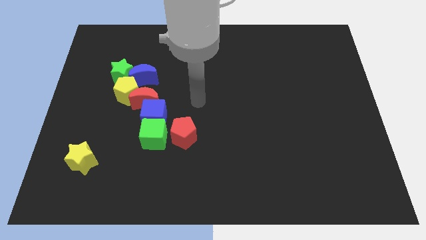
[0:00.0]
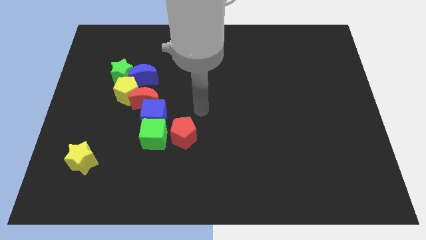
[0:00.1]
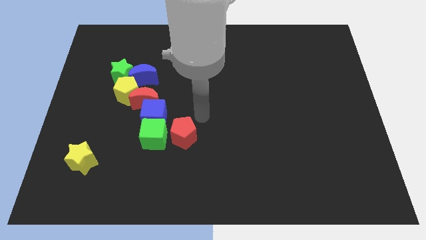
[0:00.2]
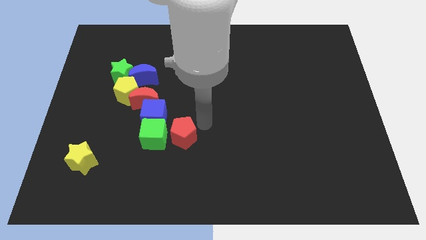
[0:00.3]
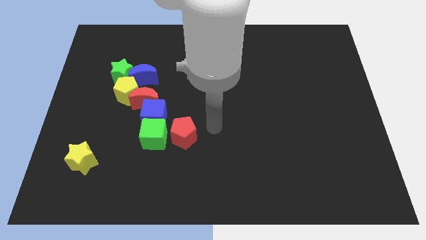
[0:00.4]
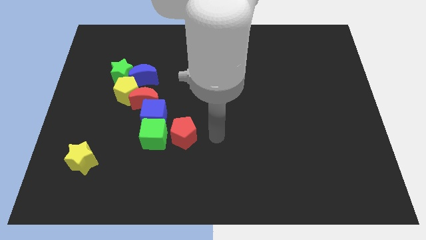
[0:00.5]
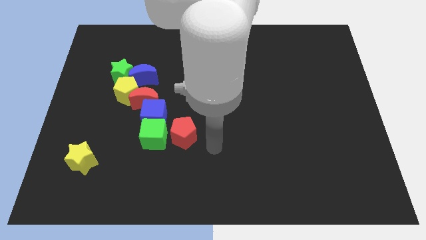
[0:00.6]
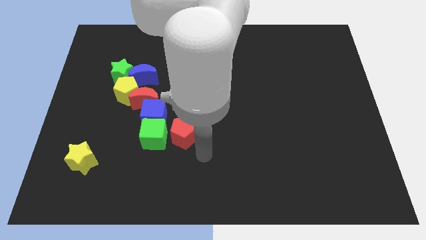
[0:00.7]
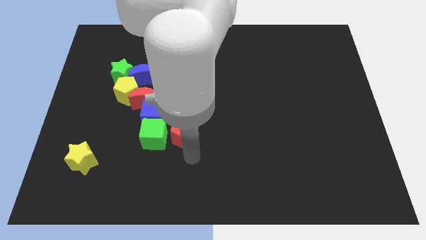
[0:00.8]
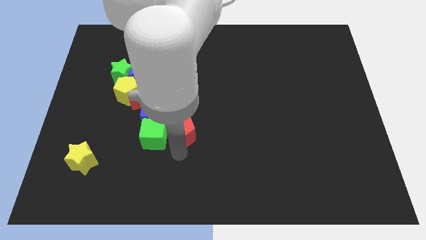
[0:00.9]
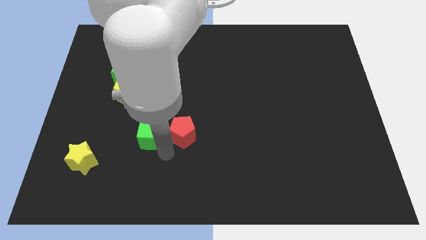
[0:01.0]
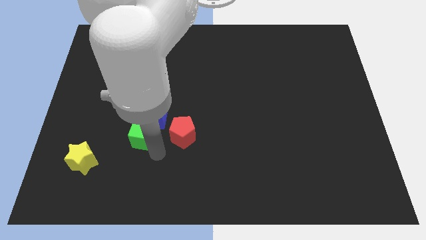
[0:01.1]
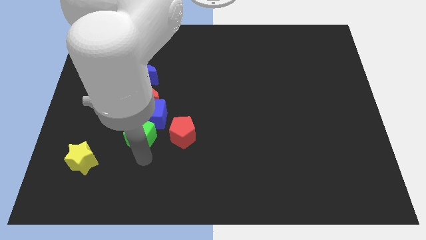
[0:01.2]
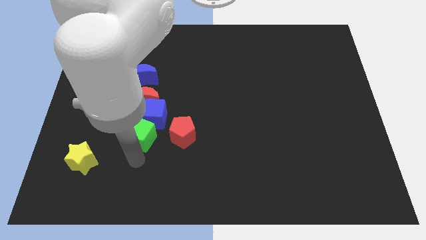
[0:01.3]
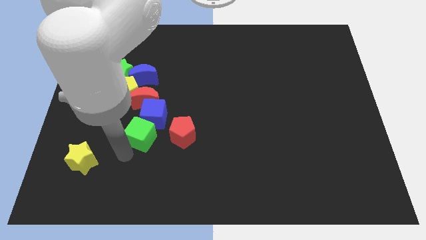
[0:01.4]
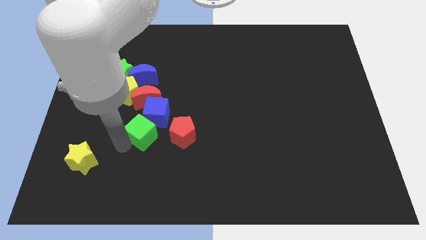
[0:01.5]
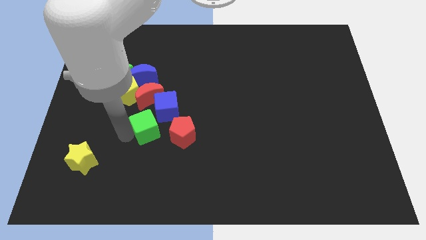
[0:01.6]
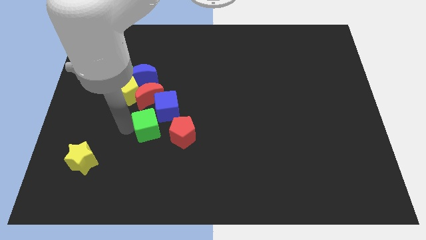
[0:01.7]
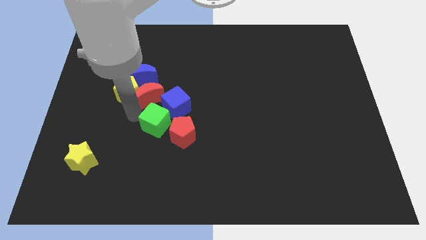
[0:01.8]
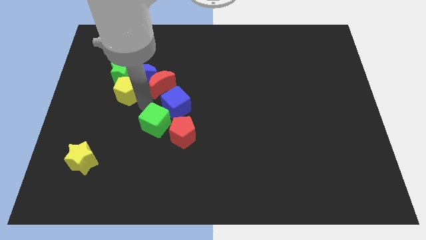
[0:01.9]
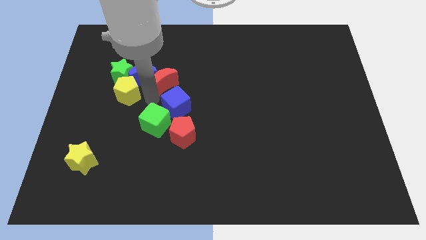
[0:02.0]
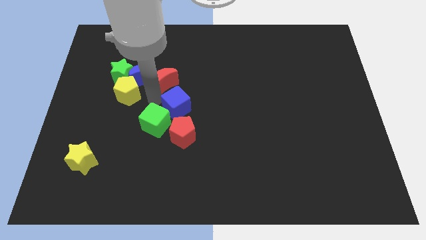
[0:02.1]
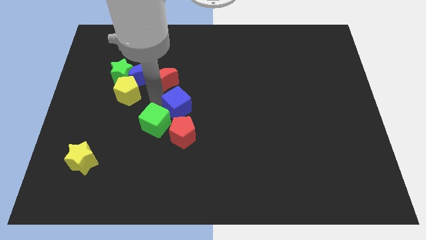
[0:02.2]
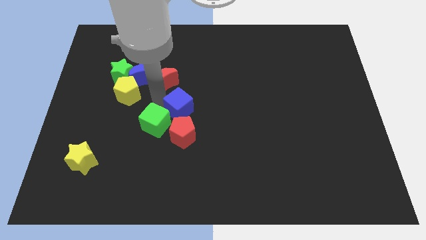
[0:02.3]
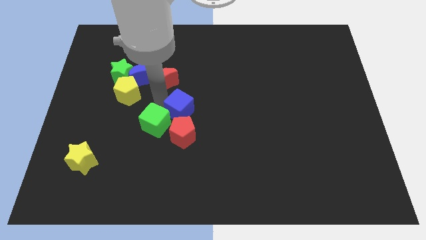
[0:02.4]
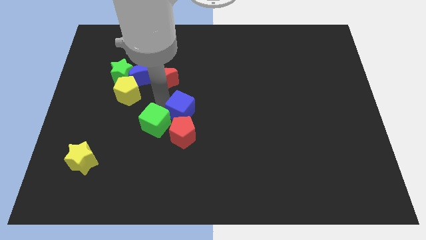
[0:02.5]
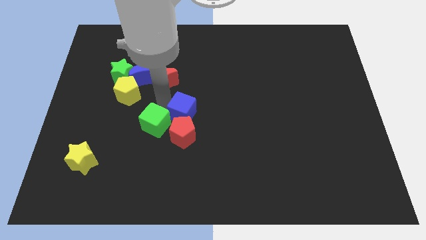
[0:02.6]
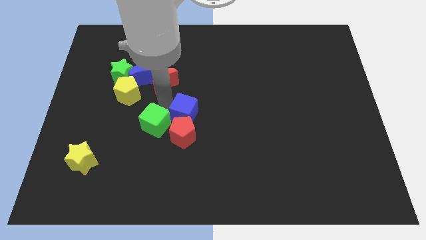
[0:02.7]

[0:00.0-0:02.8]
slide the blue cube right a little bit

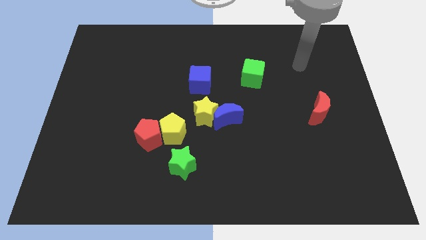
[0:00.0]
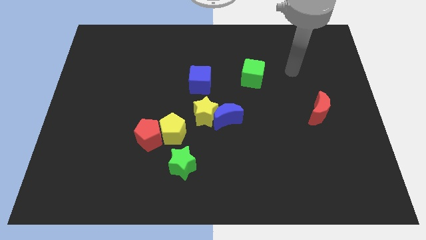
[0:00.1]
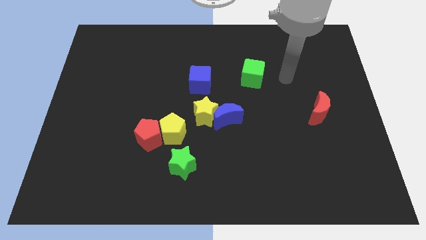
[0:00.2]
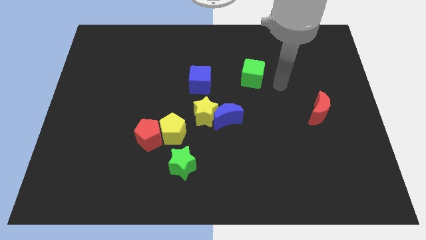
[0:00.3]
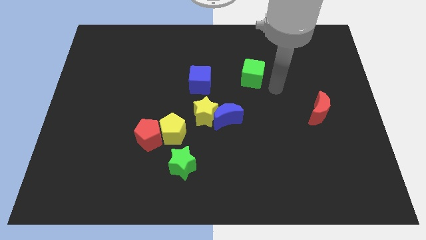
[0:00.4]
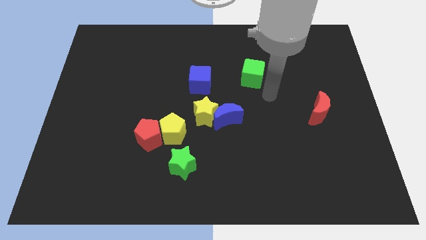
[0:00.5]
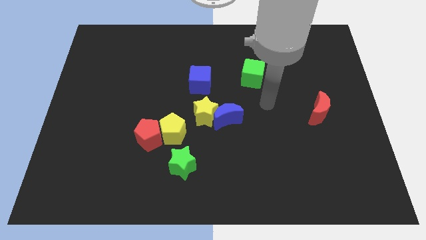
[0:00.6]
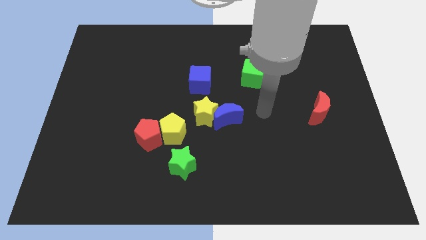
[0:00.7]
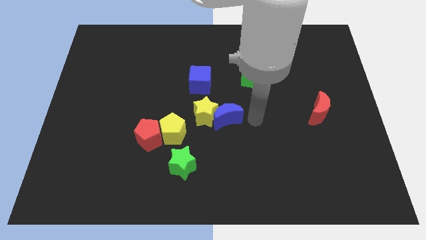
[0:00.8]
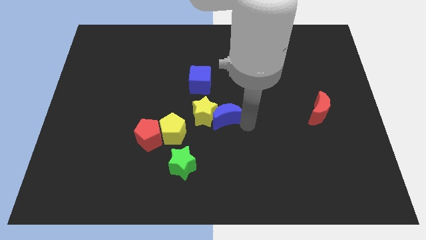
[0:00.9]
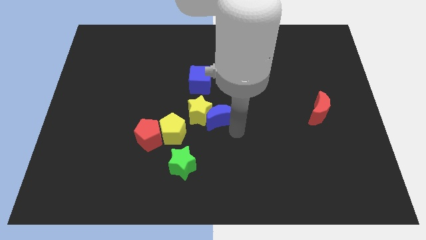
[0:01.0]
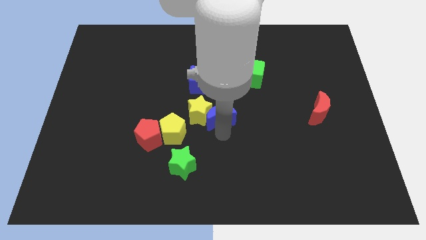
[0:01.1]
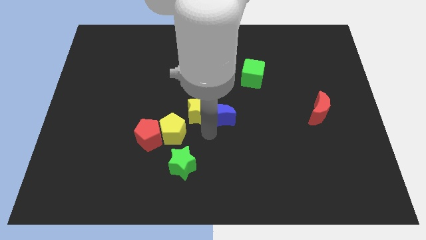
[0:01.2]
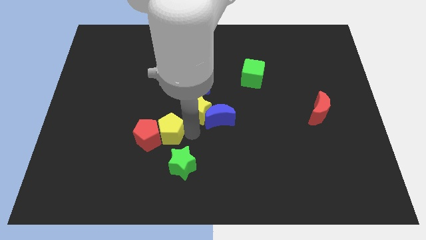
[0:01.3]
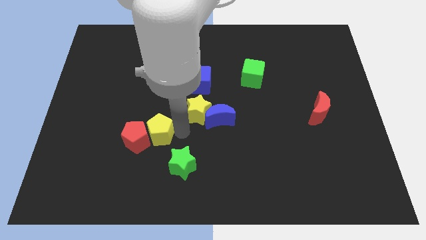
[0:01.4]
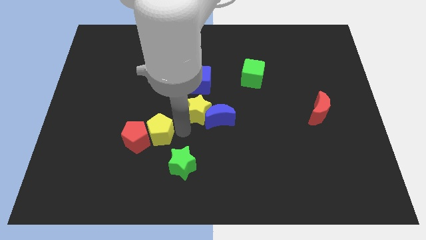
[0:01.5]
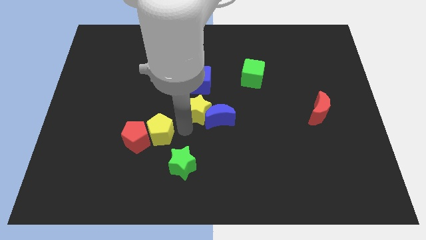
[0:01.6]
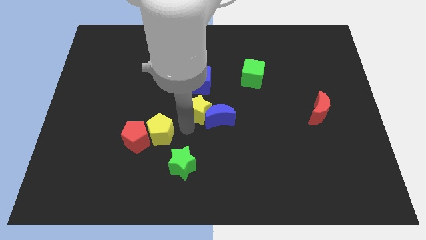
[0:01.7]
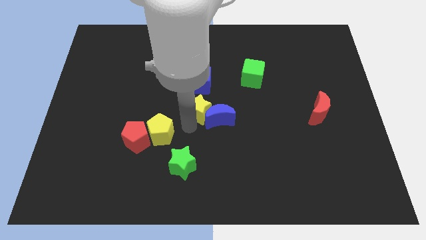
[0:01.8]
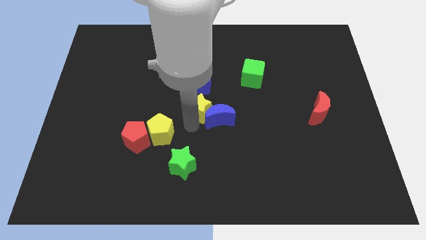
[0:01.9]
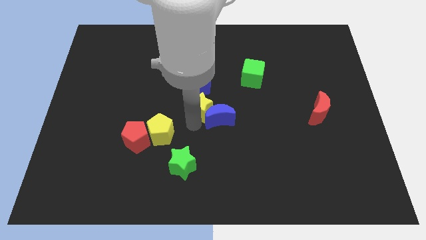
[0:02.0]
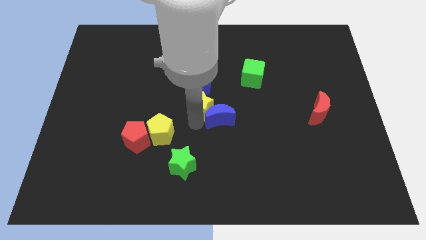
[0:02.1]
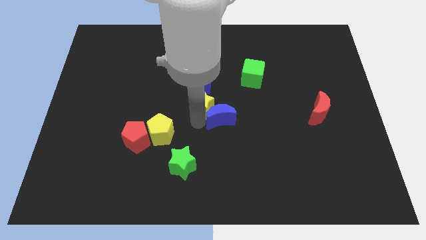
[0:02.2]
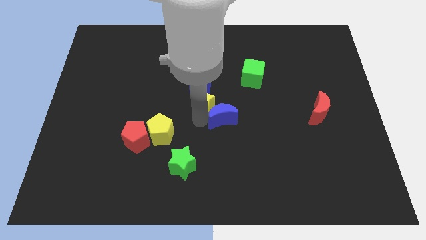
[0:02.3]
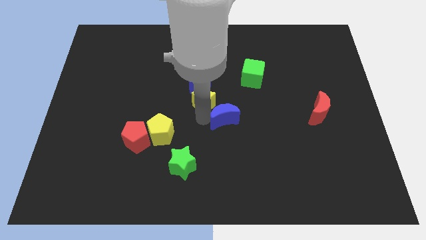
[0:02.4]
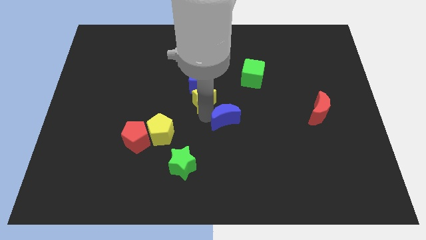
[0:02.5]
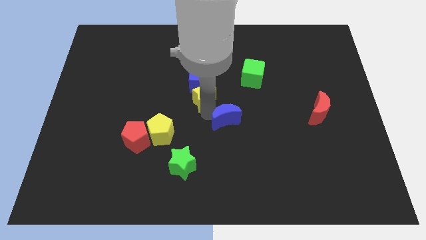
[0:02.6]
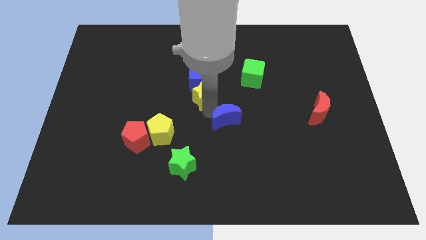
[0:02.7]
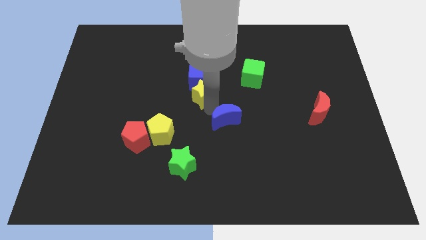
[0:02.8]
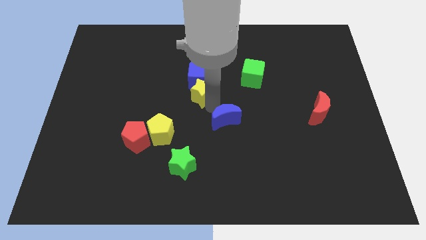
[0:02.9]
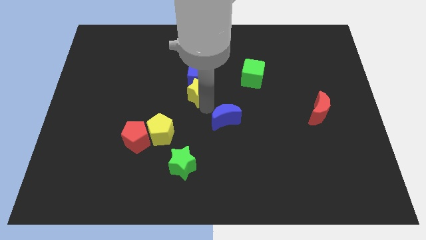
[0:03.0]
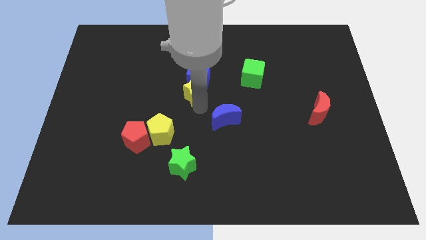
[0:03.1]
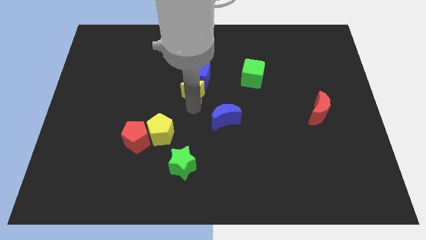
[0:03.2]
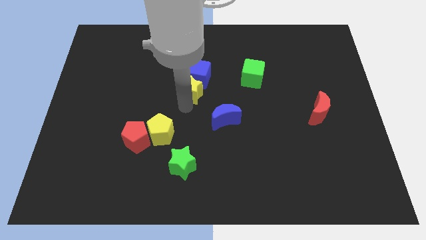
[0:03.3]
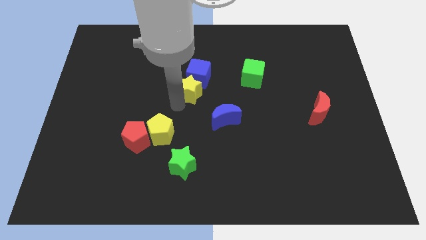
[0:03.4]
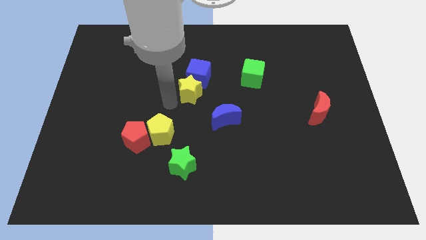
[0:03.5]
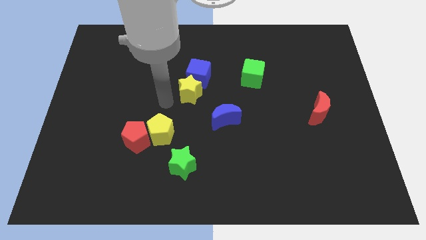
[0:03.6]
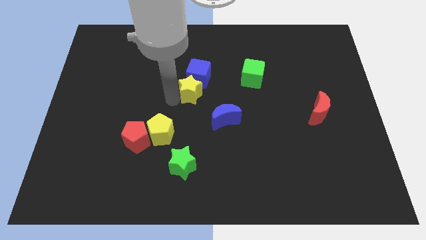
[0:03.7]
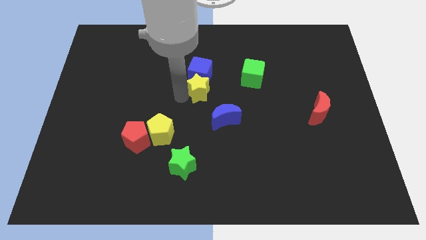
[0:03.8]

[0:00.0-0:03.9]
slightly push the yellow star up

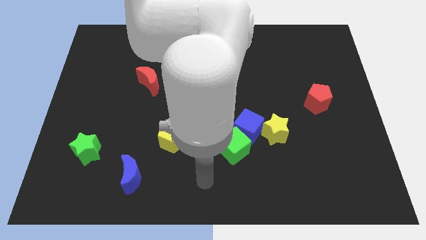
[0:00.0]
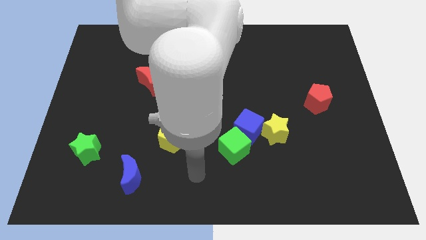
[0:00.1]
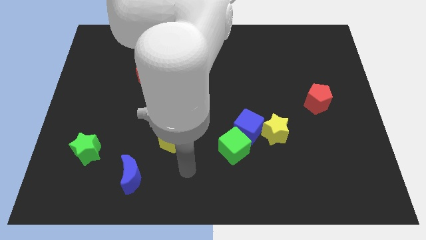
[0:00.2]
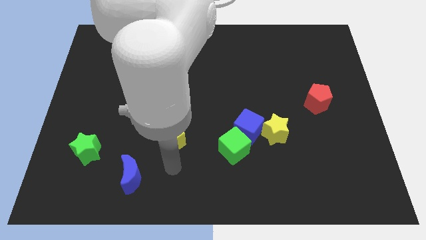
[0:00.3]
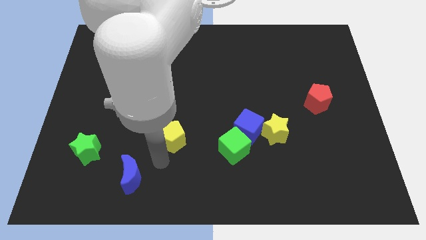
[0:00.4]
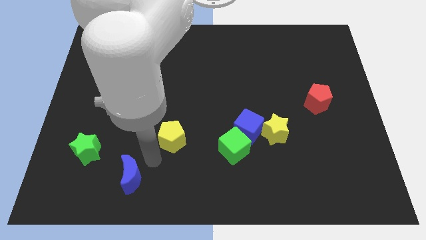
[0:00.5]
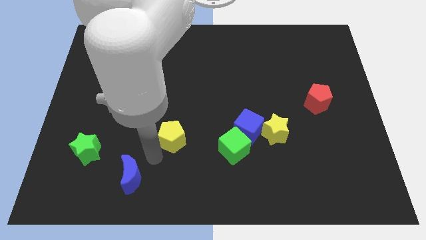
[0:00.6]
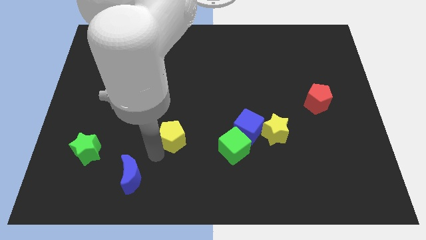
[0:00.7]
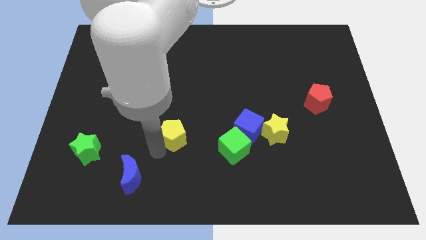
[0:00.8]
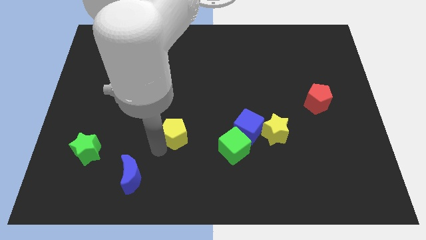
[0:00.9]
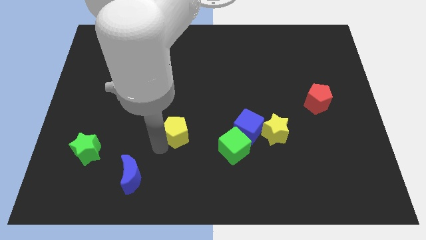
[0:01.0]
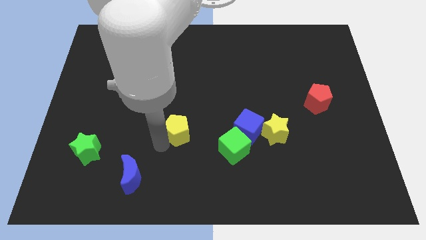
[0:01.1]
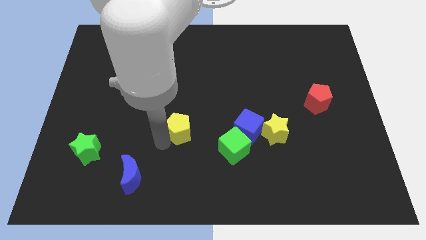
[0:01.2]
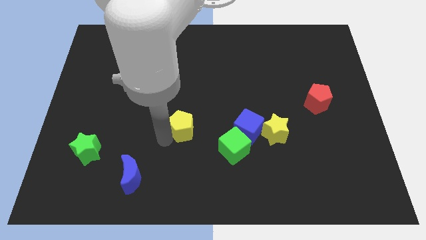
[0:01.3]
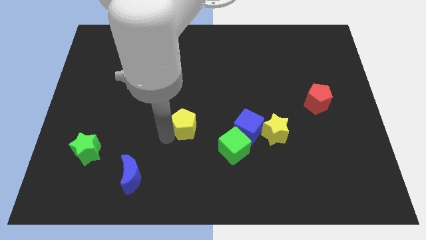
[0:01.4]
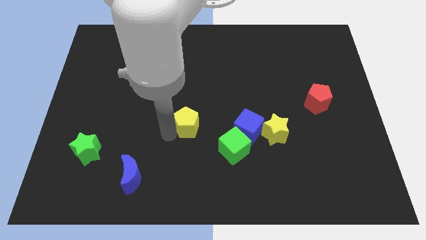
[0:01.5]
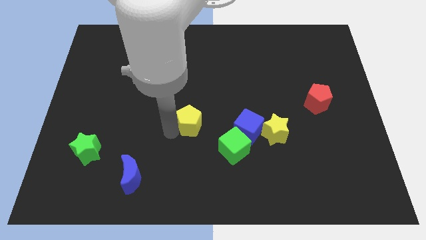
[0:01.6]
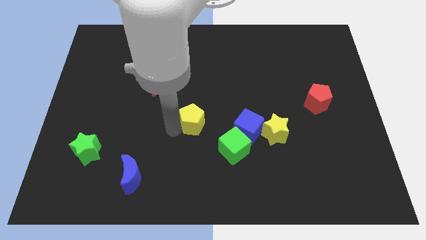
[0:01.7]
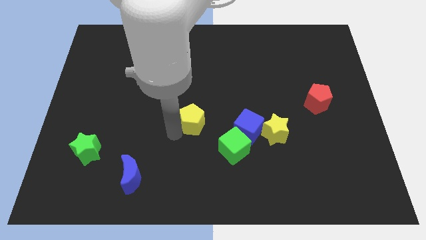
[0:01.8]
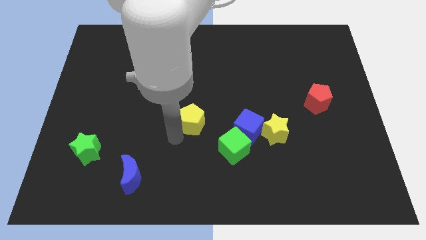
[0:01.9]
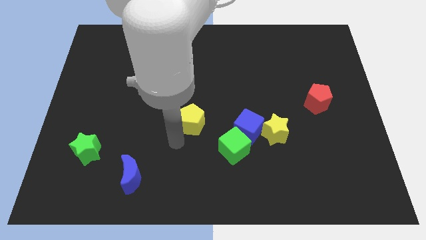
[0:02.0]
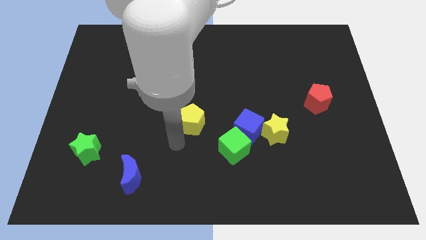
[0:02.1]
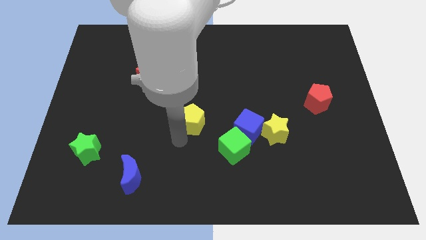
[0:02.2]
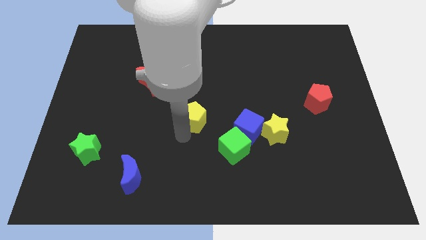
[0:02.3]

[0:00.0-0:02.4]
move the yellow pentagon upwards and to the right a little bit
